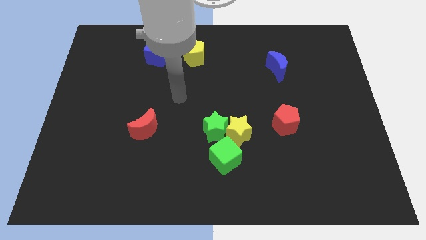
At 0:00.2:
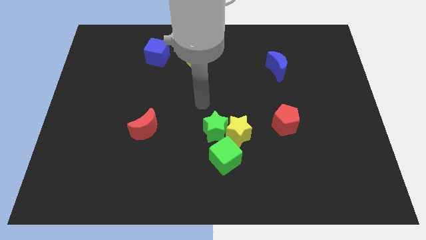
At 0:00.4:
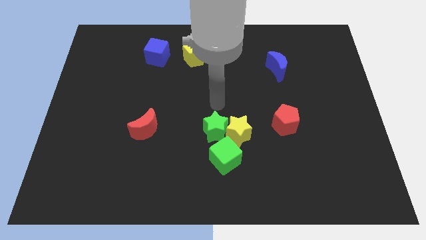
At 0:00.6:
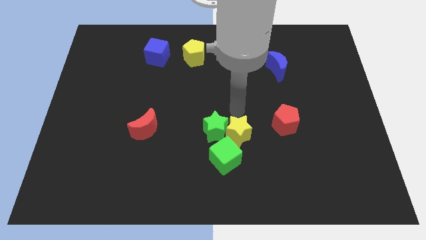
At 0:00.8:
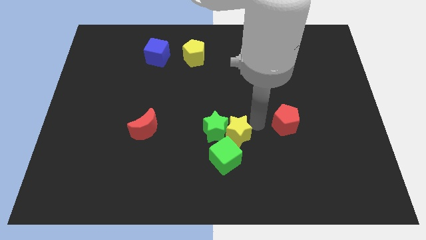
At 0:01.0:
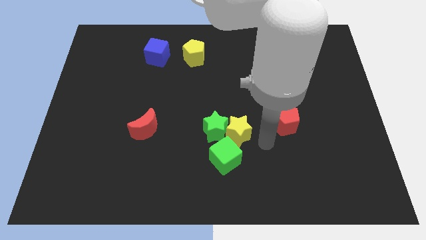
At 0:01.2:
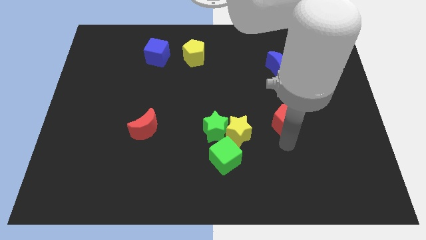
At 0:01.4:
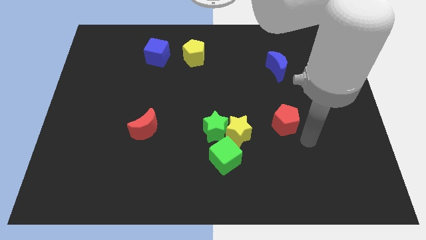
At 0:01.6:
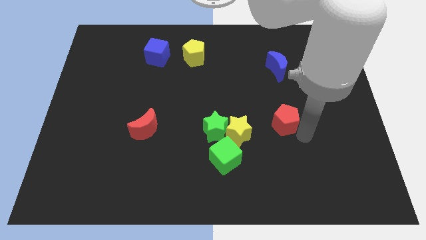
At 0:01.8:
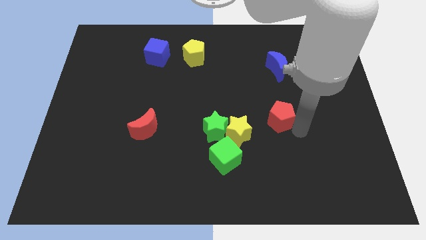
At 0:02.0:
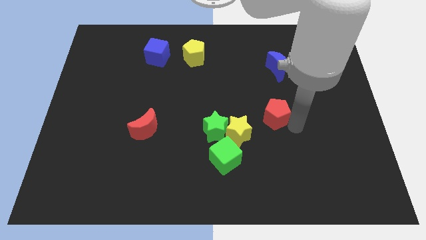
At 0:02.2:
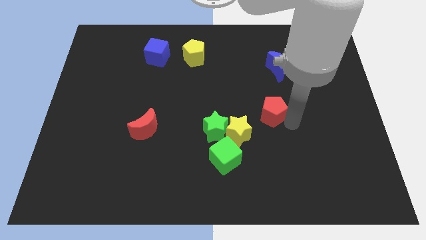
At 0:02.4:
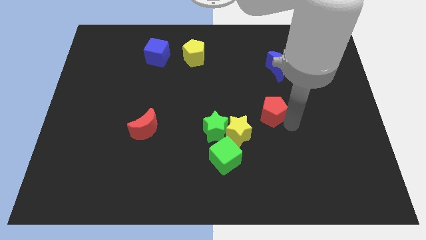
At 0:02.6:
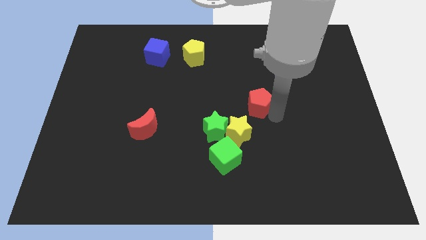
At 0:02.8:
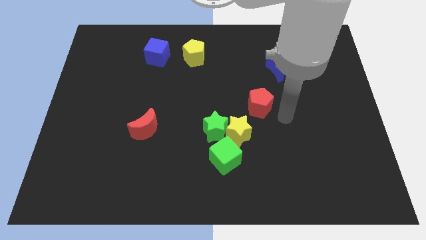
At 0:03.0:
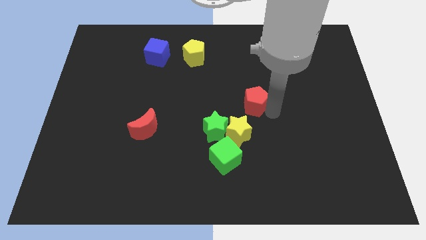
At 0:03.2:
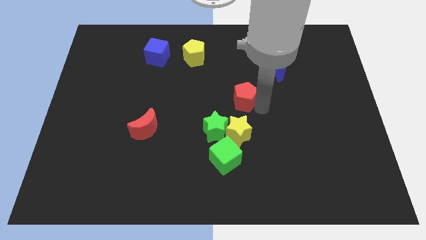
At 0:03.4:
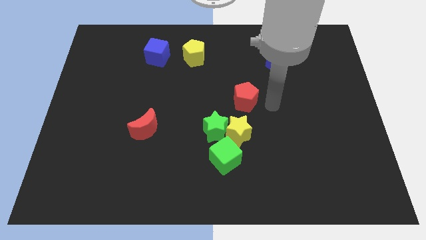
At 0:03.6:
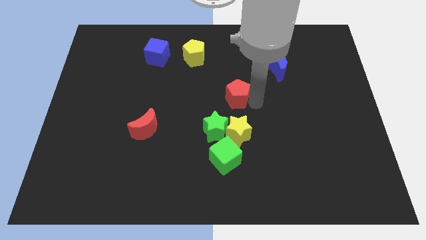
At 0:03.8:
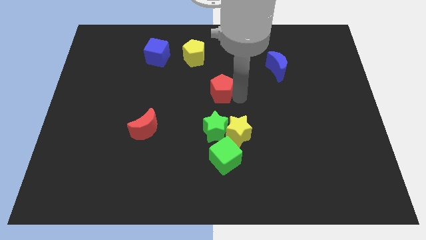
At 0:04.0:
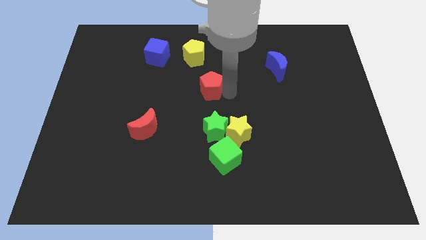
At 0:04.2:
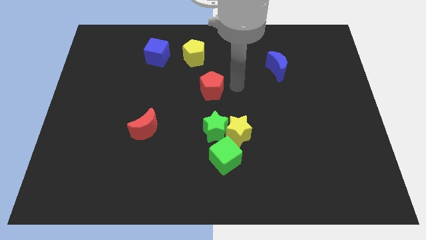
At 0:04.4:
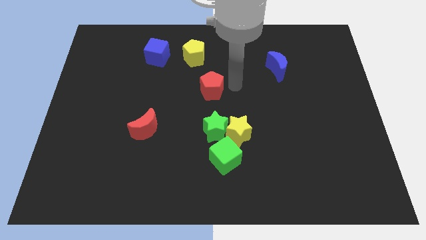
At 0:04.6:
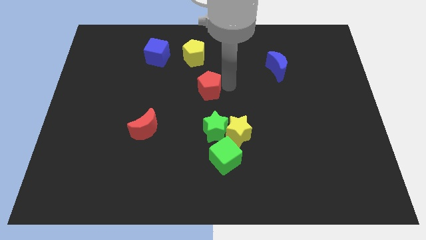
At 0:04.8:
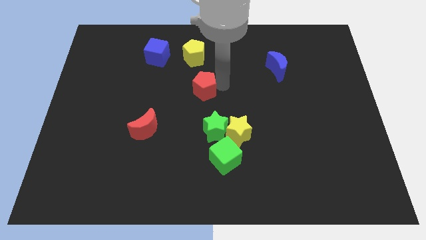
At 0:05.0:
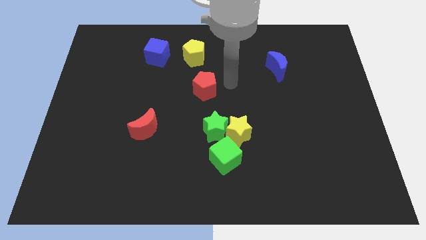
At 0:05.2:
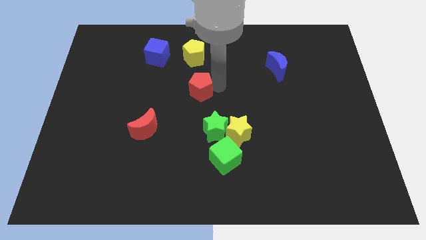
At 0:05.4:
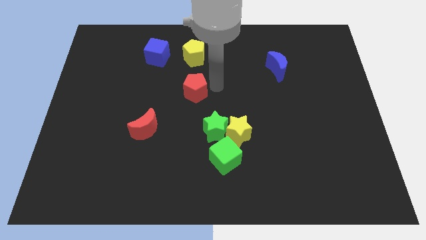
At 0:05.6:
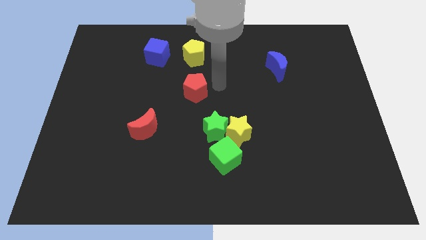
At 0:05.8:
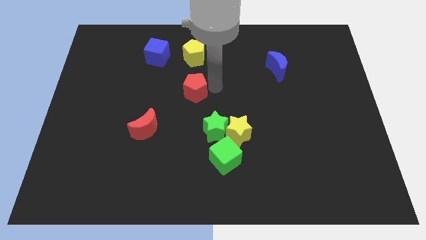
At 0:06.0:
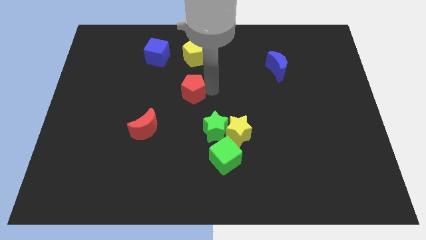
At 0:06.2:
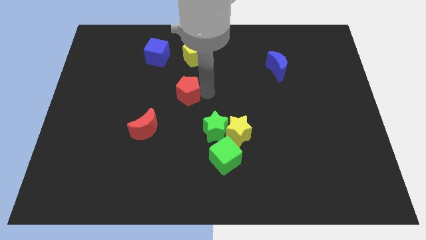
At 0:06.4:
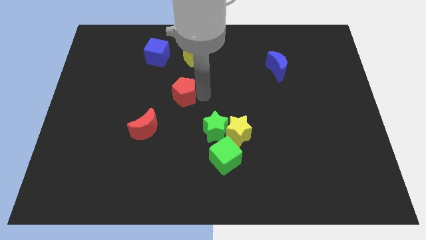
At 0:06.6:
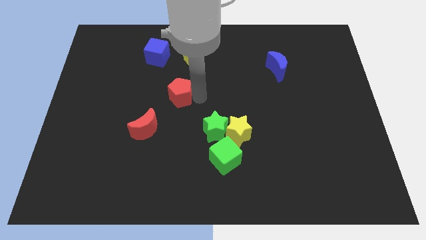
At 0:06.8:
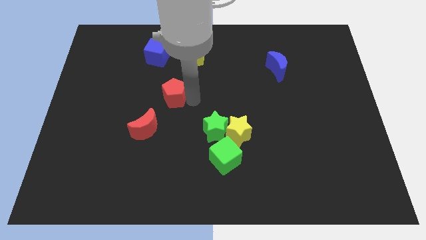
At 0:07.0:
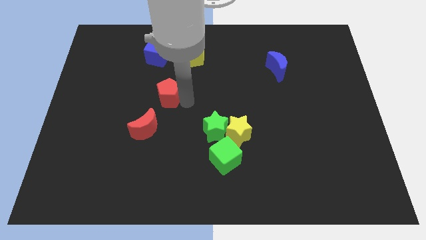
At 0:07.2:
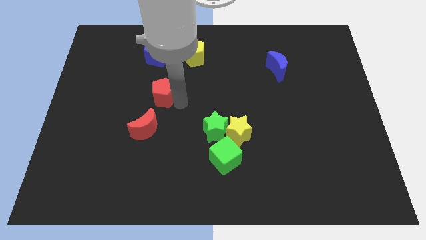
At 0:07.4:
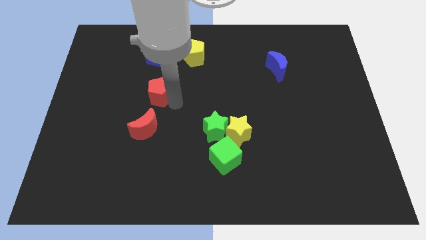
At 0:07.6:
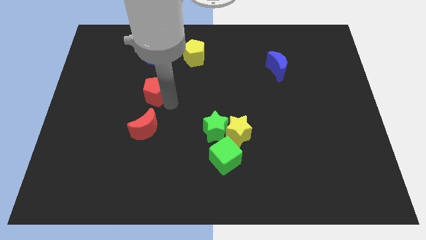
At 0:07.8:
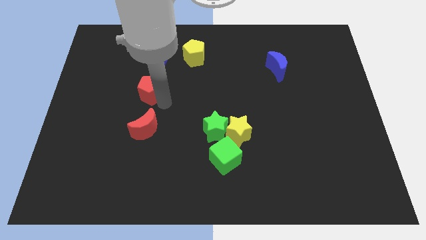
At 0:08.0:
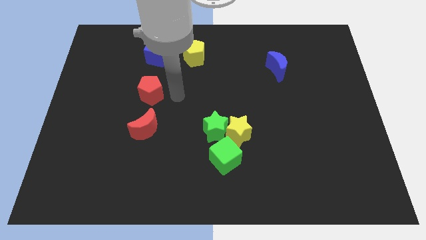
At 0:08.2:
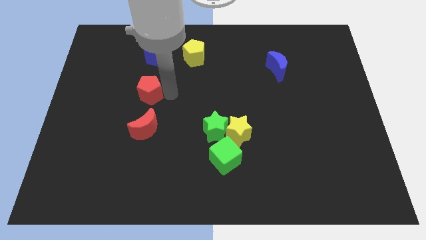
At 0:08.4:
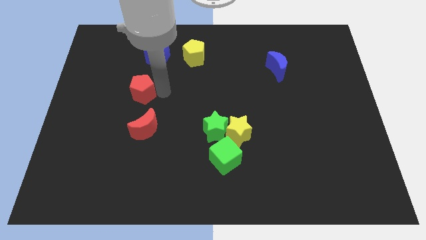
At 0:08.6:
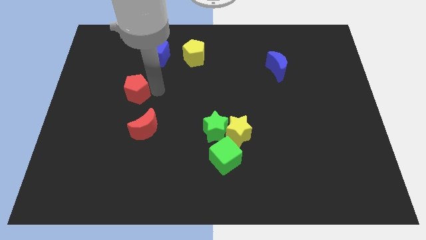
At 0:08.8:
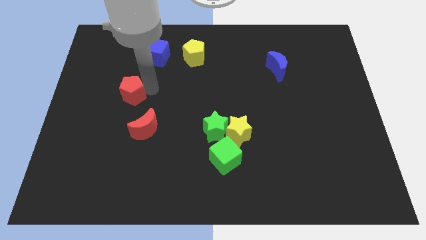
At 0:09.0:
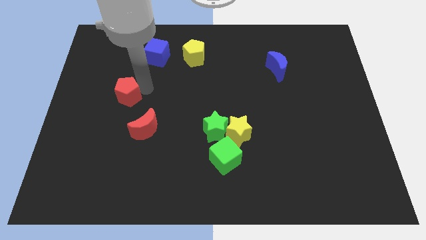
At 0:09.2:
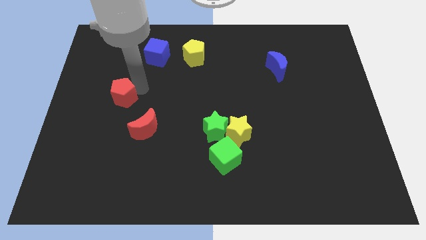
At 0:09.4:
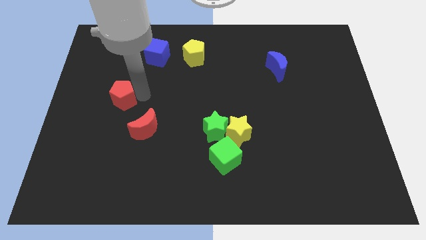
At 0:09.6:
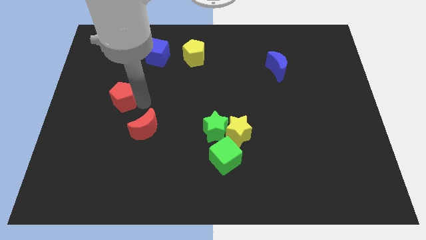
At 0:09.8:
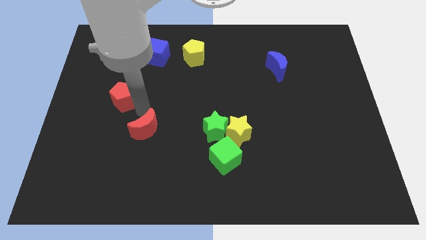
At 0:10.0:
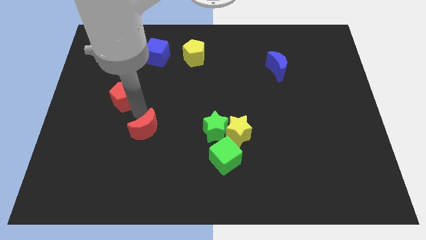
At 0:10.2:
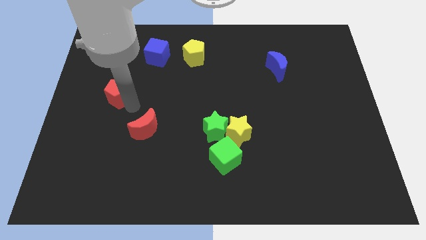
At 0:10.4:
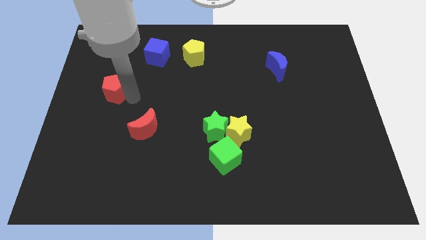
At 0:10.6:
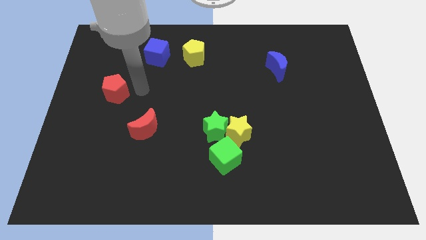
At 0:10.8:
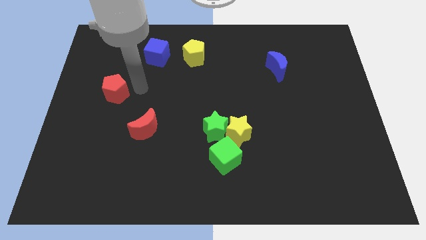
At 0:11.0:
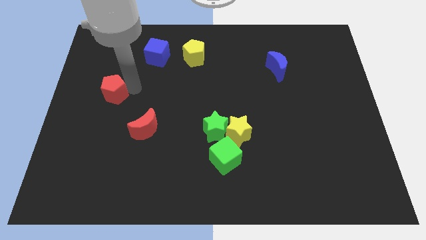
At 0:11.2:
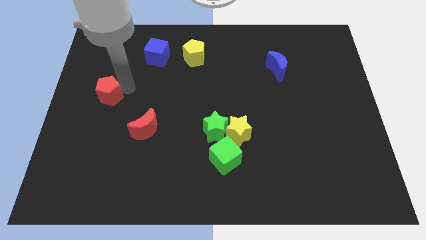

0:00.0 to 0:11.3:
put the red pentagon to the left side

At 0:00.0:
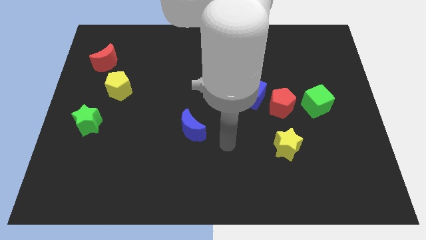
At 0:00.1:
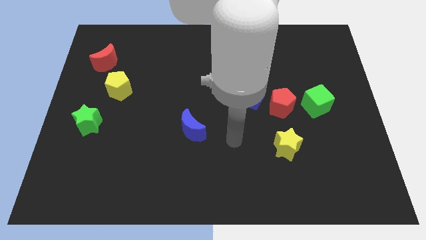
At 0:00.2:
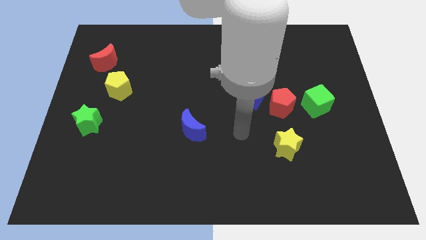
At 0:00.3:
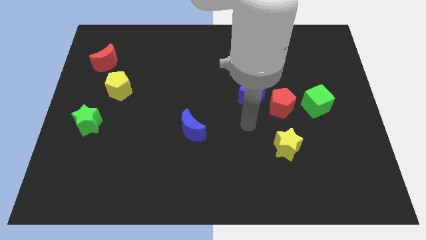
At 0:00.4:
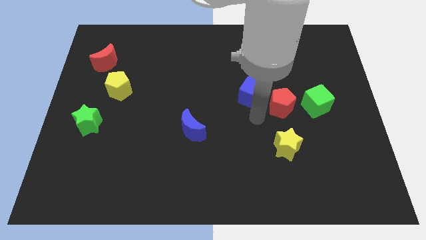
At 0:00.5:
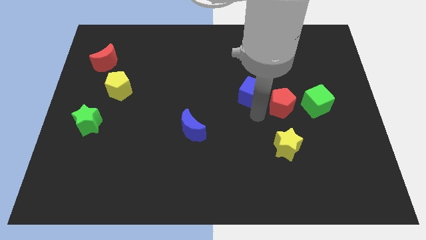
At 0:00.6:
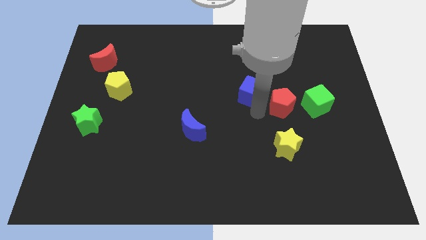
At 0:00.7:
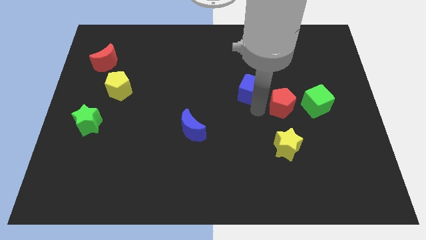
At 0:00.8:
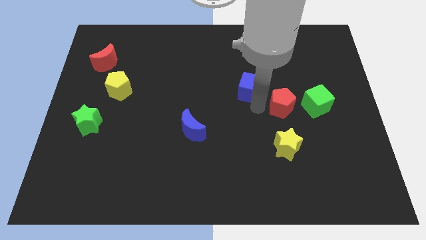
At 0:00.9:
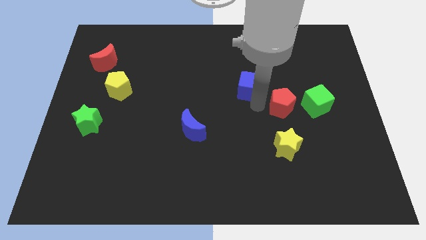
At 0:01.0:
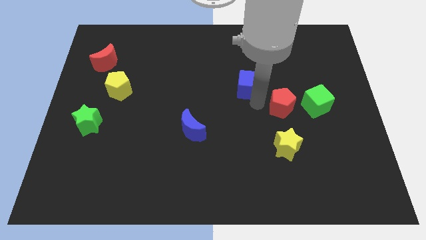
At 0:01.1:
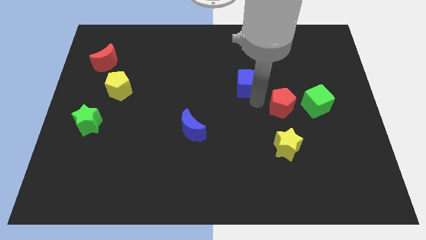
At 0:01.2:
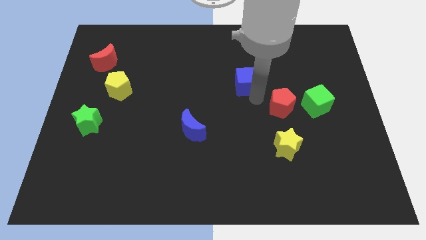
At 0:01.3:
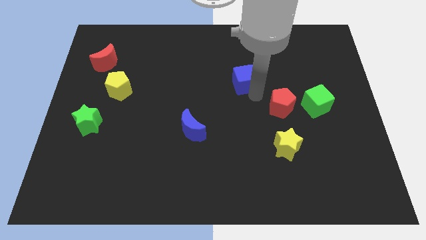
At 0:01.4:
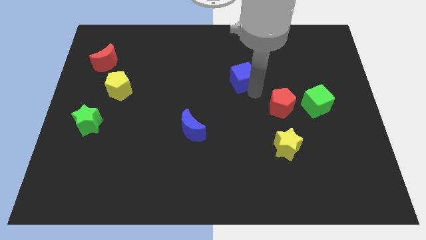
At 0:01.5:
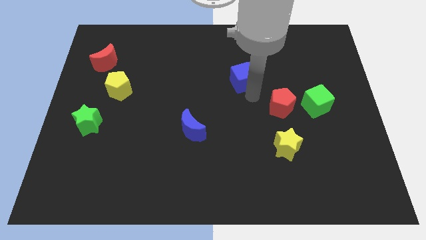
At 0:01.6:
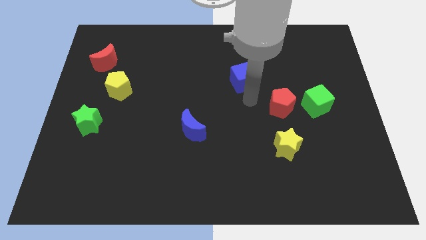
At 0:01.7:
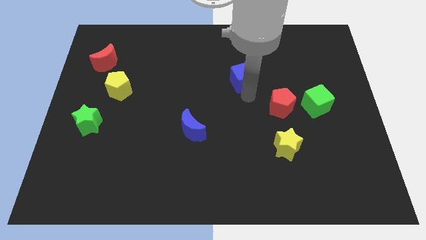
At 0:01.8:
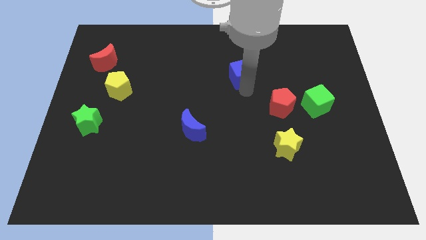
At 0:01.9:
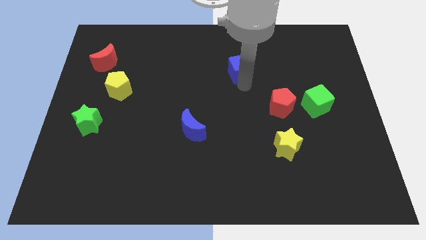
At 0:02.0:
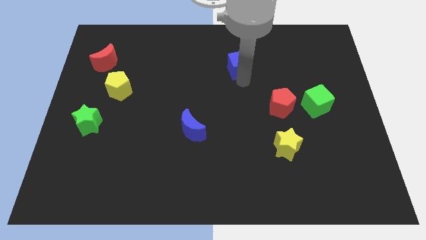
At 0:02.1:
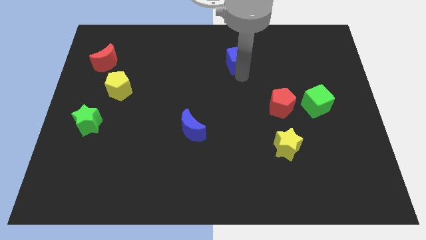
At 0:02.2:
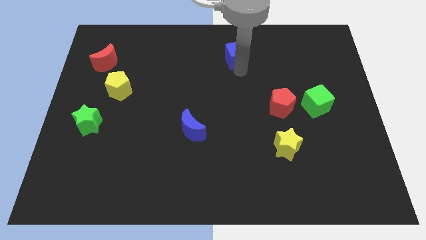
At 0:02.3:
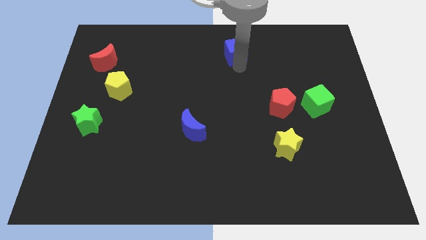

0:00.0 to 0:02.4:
put the blue cube to the top side
